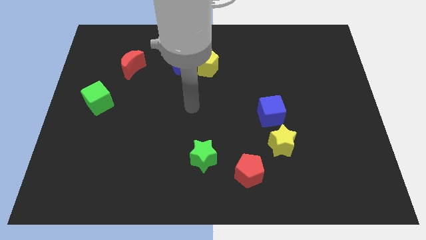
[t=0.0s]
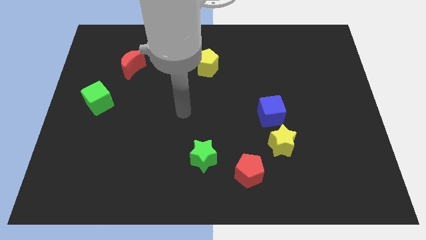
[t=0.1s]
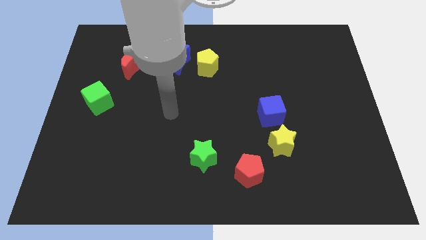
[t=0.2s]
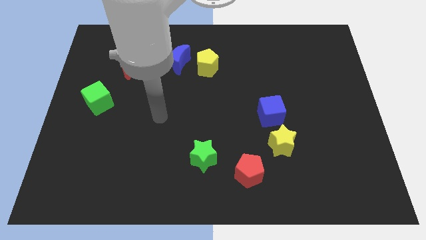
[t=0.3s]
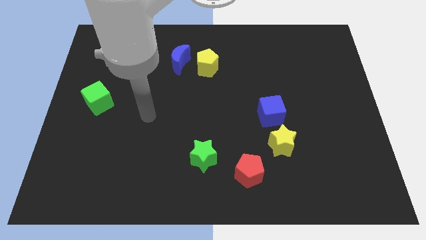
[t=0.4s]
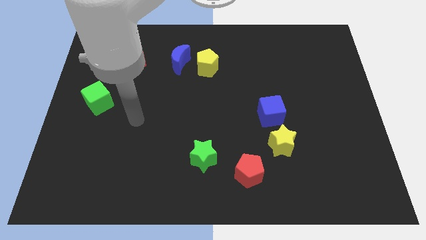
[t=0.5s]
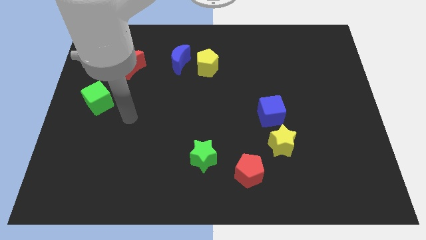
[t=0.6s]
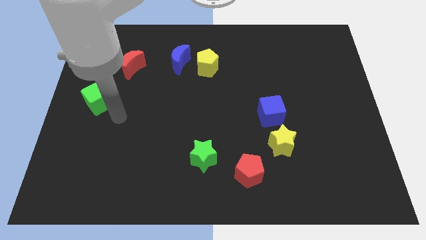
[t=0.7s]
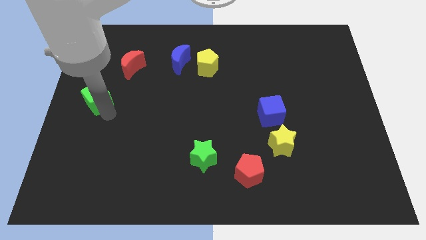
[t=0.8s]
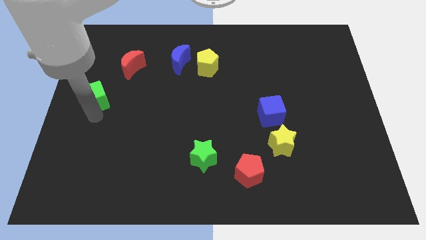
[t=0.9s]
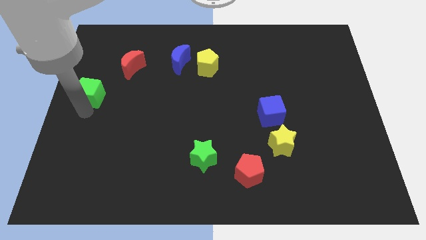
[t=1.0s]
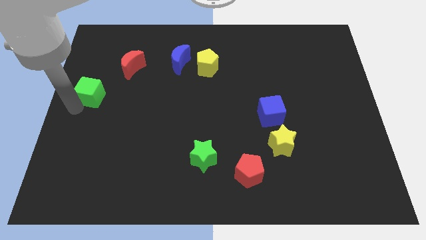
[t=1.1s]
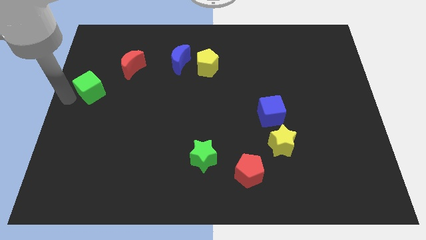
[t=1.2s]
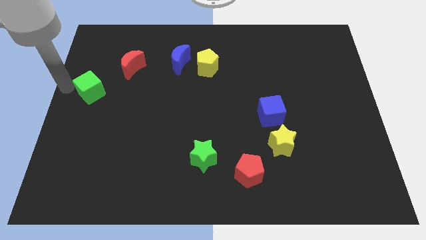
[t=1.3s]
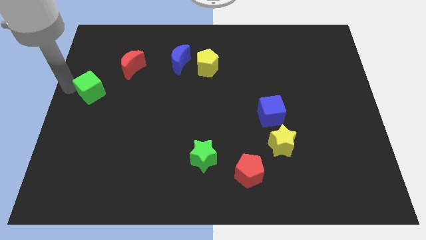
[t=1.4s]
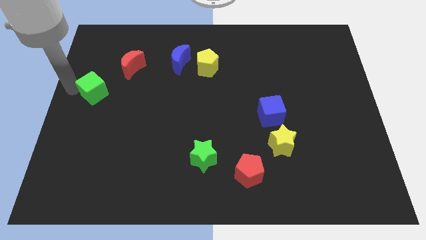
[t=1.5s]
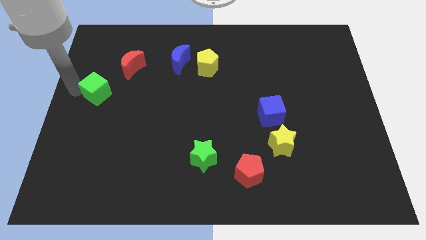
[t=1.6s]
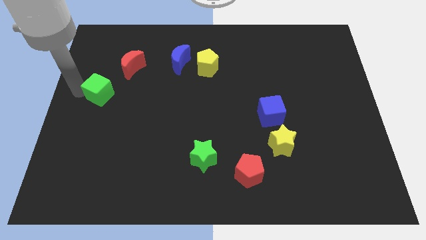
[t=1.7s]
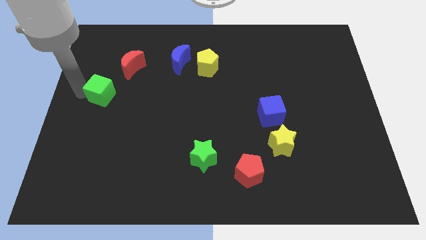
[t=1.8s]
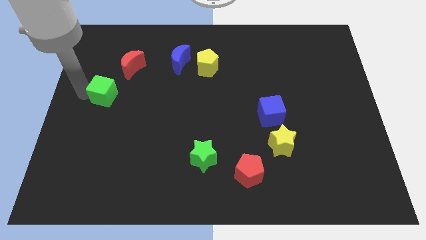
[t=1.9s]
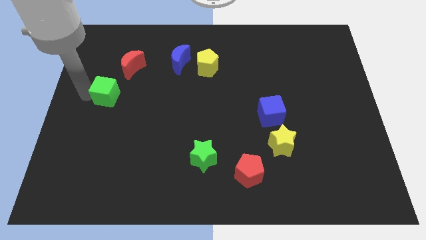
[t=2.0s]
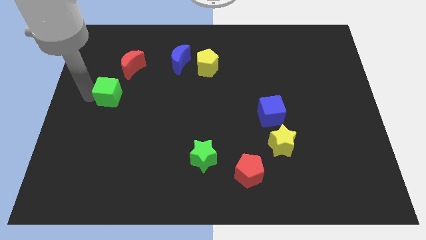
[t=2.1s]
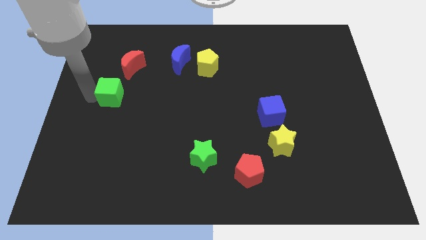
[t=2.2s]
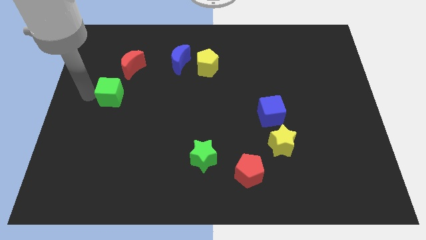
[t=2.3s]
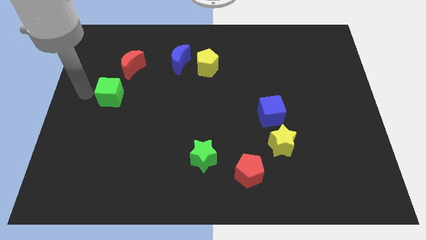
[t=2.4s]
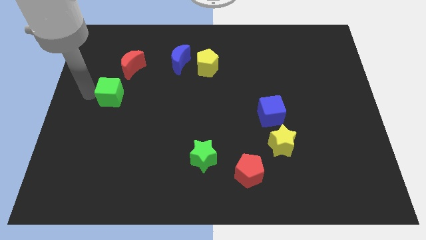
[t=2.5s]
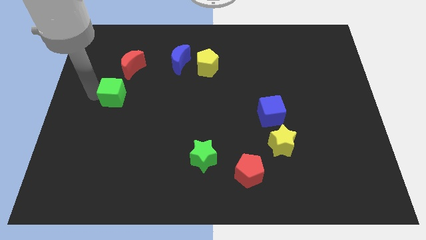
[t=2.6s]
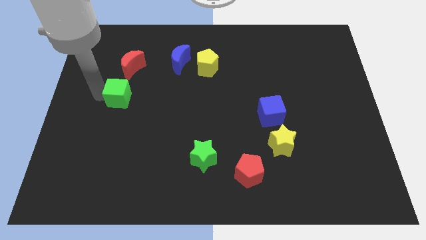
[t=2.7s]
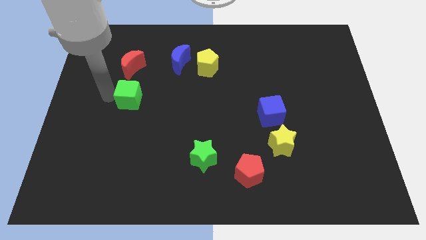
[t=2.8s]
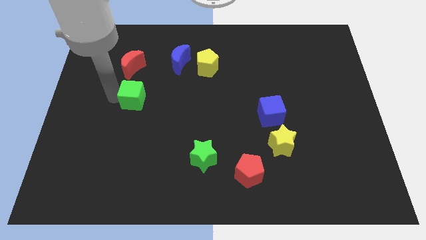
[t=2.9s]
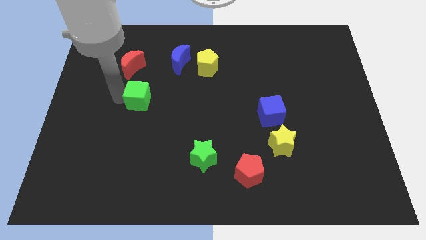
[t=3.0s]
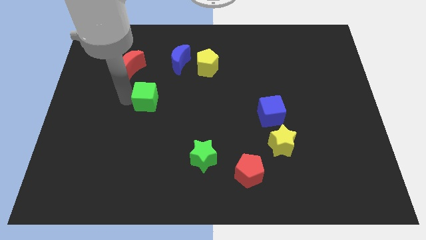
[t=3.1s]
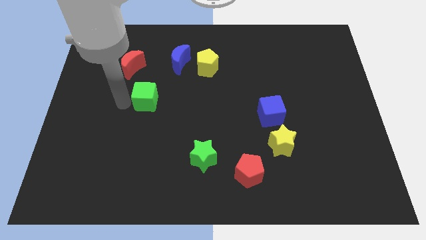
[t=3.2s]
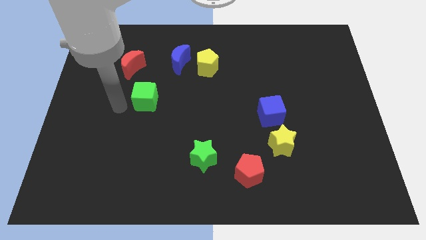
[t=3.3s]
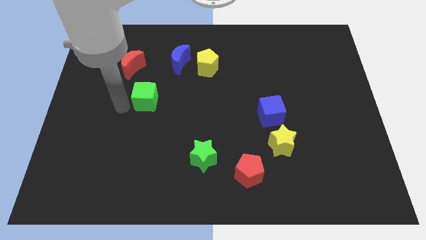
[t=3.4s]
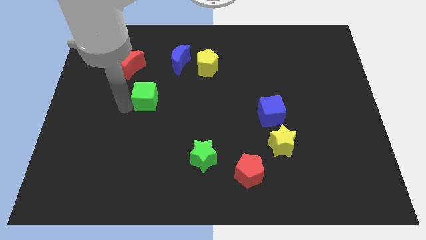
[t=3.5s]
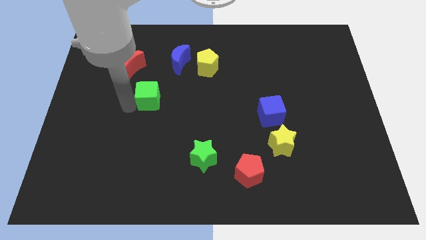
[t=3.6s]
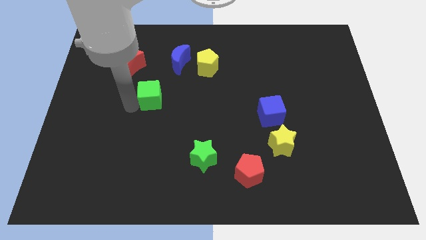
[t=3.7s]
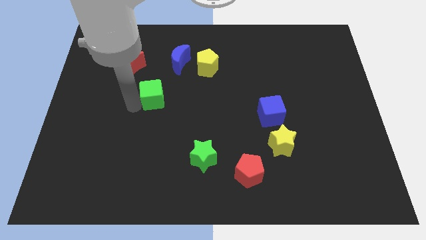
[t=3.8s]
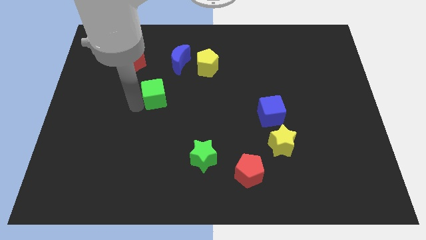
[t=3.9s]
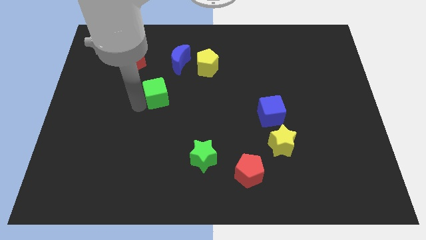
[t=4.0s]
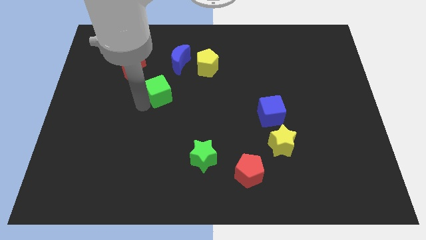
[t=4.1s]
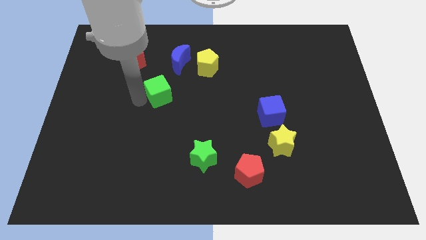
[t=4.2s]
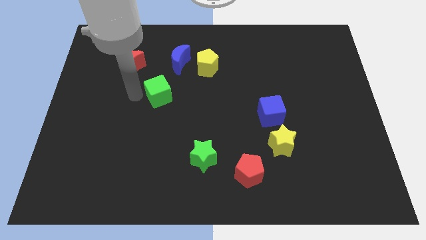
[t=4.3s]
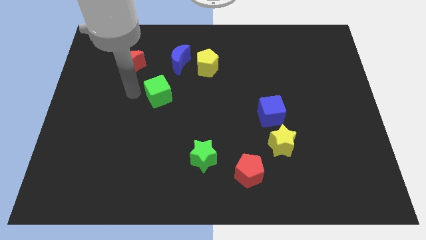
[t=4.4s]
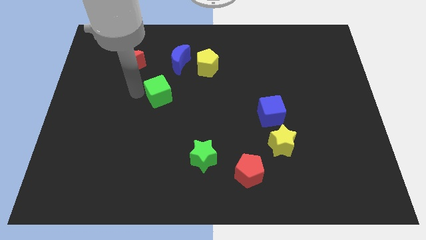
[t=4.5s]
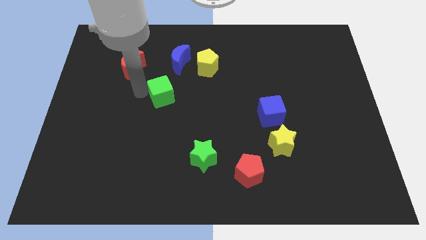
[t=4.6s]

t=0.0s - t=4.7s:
put the green cube to the middle

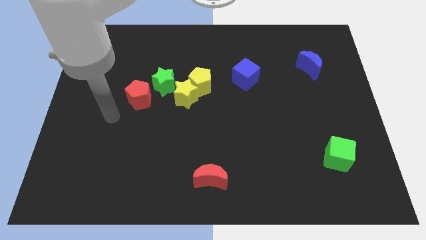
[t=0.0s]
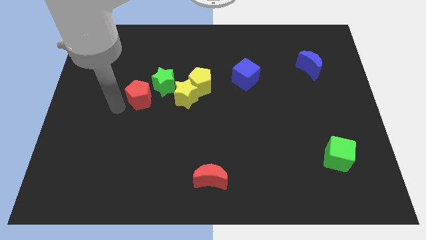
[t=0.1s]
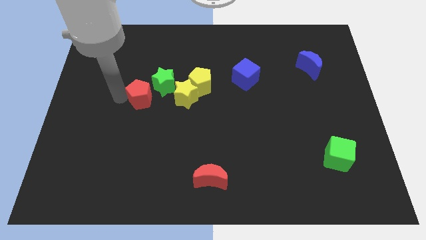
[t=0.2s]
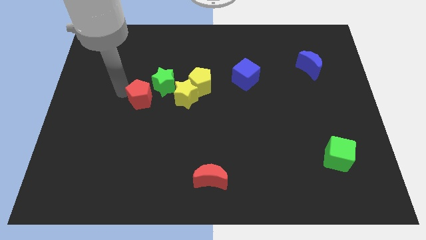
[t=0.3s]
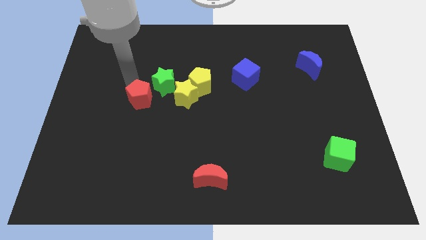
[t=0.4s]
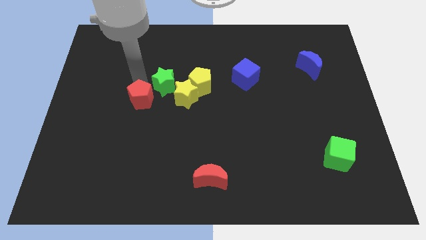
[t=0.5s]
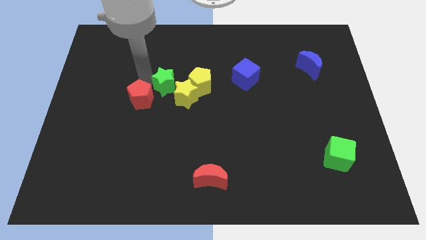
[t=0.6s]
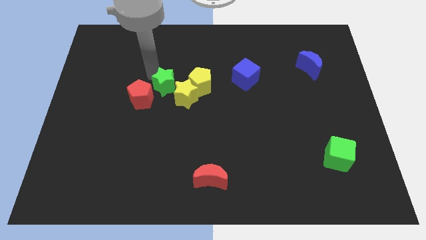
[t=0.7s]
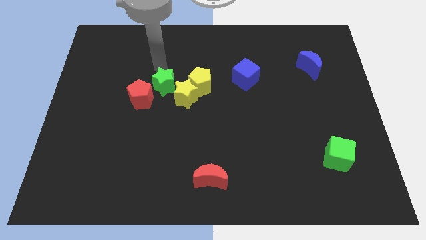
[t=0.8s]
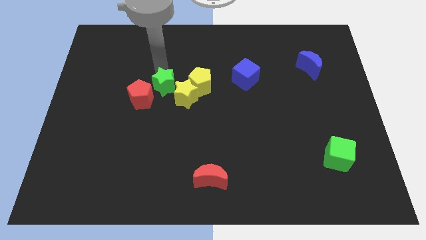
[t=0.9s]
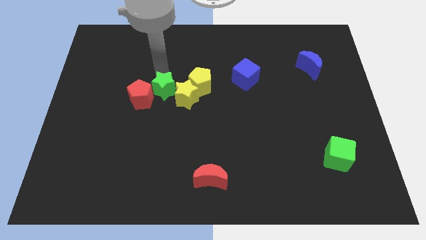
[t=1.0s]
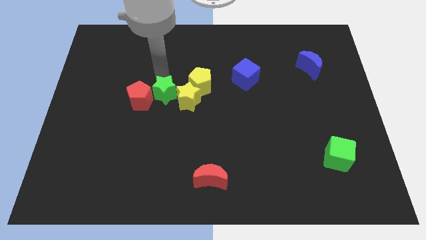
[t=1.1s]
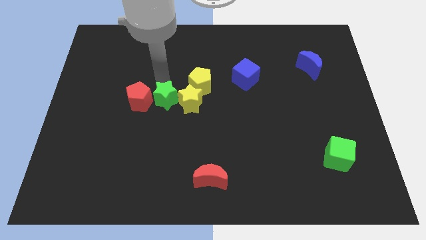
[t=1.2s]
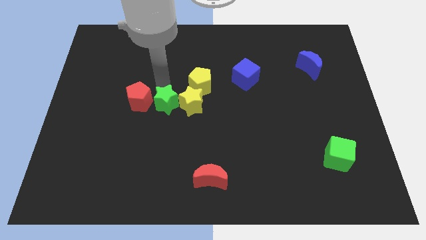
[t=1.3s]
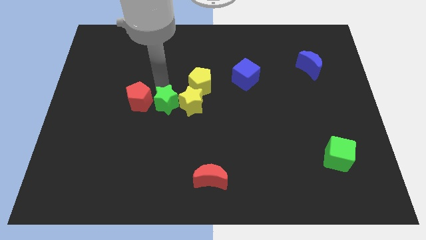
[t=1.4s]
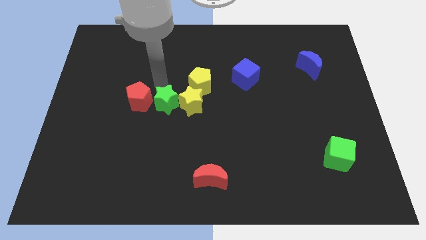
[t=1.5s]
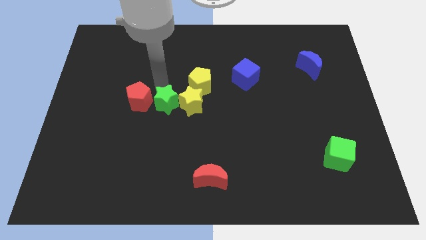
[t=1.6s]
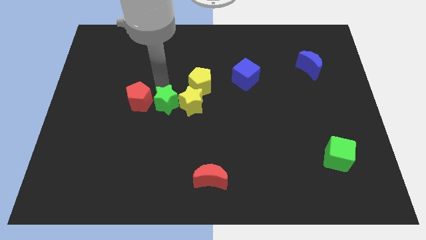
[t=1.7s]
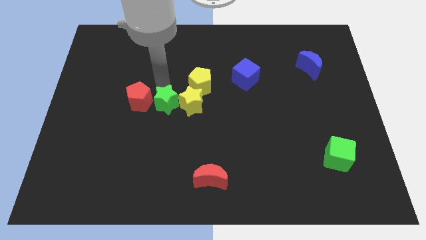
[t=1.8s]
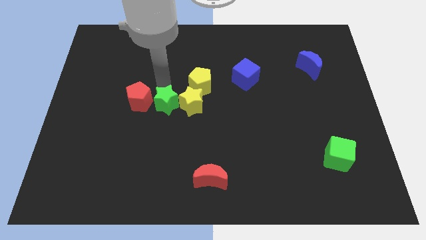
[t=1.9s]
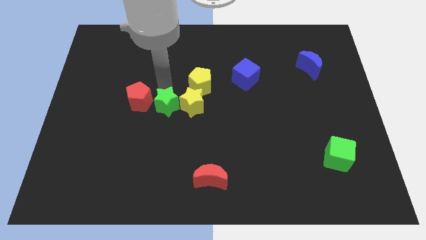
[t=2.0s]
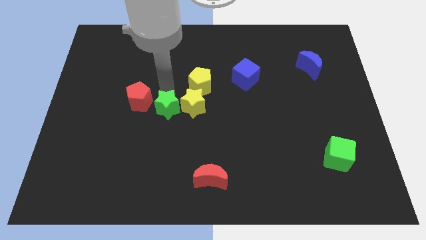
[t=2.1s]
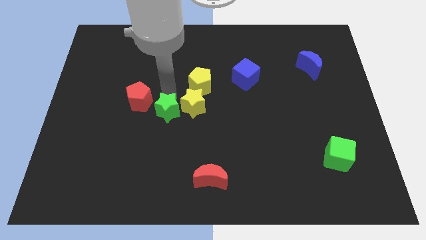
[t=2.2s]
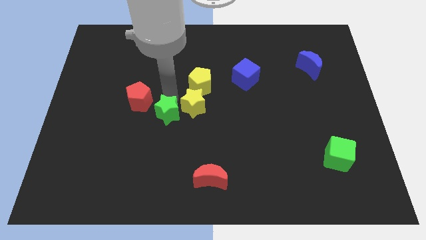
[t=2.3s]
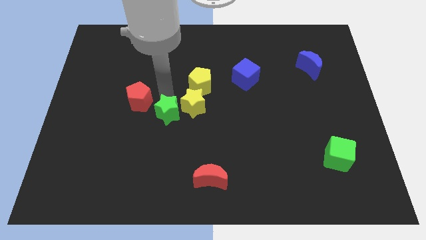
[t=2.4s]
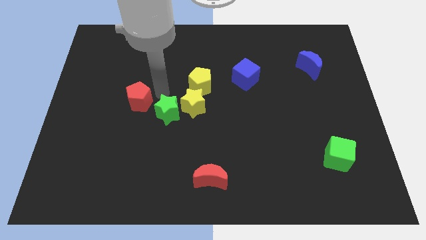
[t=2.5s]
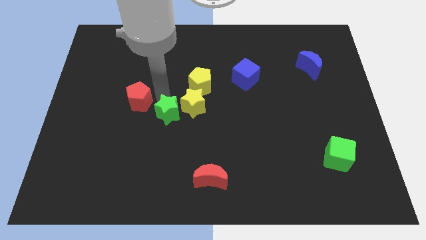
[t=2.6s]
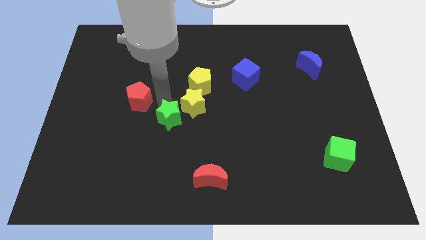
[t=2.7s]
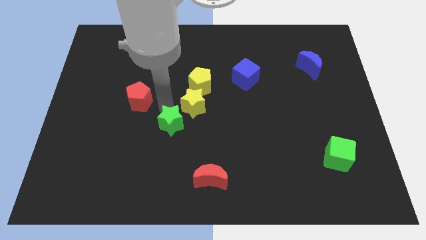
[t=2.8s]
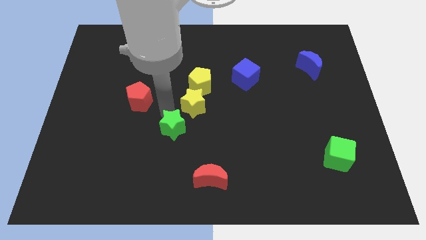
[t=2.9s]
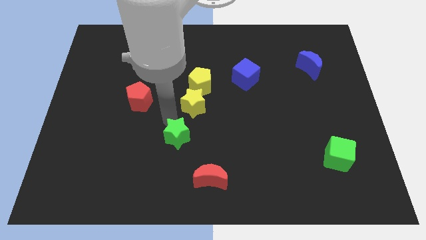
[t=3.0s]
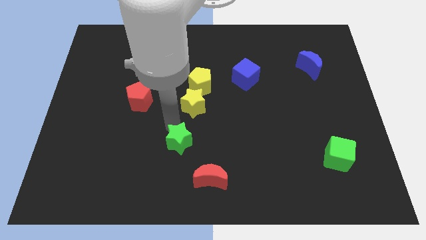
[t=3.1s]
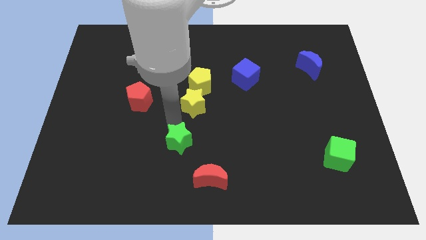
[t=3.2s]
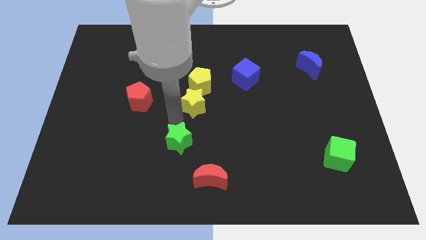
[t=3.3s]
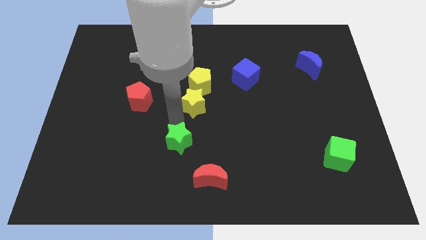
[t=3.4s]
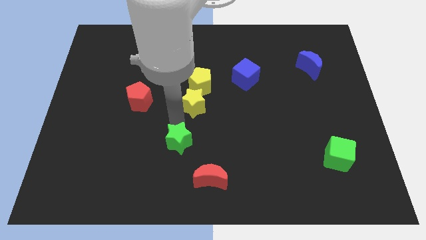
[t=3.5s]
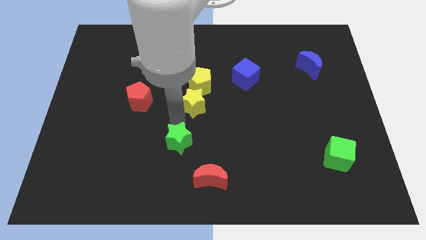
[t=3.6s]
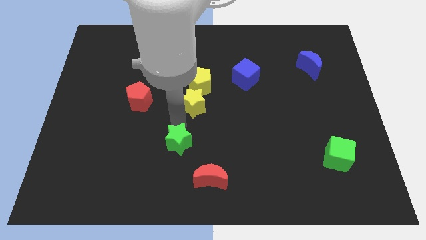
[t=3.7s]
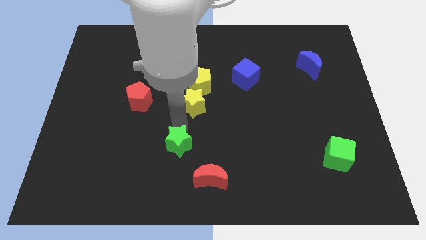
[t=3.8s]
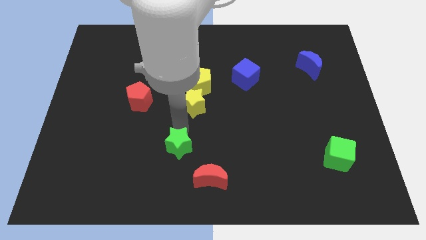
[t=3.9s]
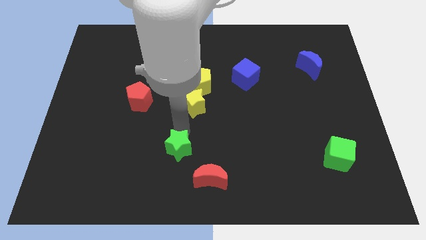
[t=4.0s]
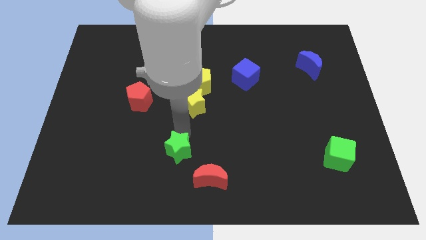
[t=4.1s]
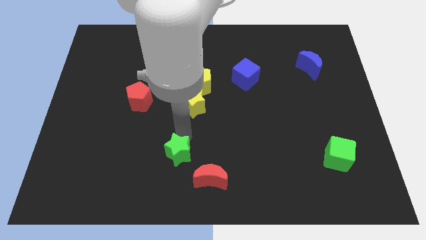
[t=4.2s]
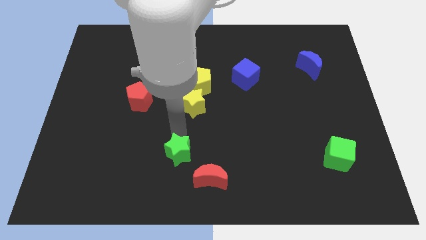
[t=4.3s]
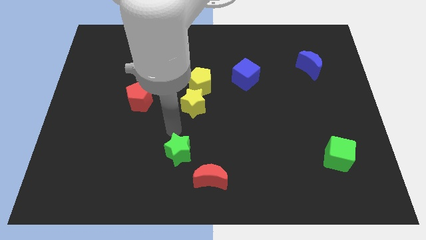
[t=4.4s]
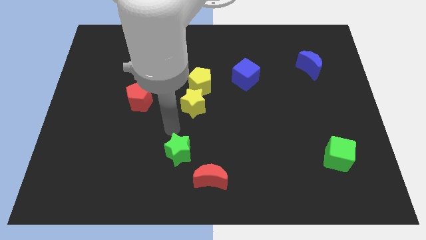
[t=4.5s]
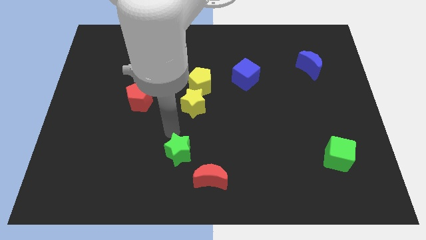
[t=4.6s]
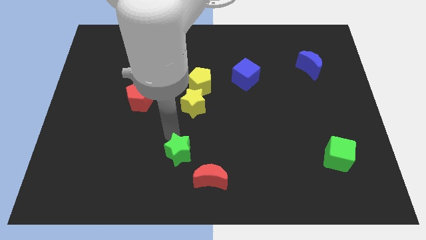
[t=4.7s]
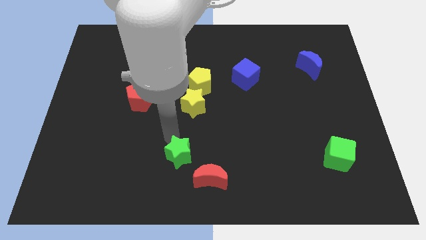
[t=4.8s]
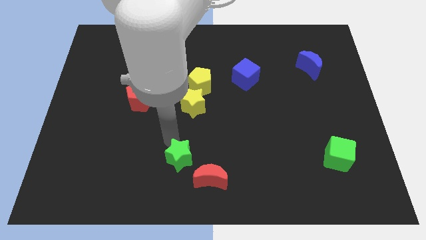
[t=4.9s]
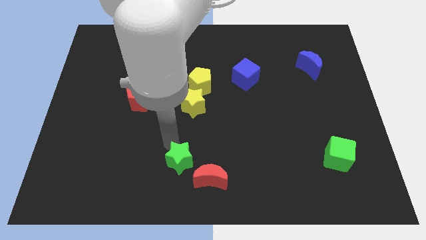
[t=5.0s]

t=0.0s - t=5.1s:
push the green star to the bottom
